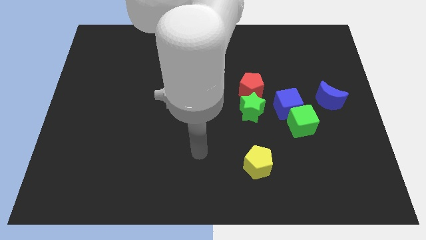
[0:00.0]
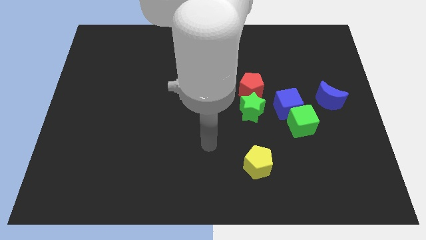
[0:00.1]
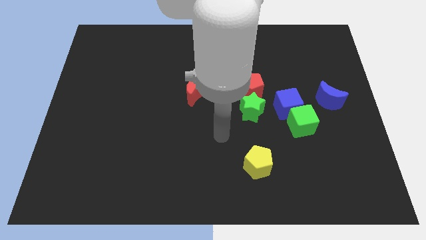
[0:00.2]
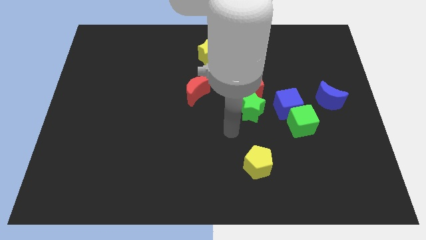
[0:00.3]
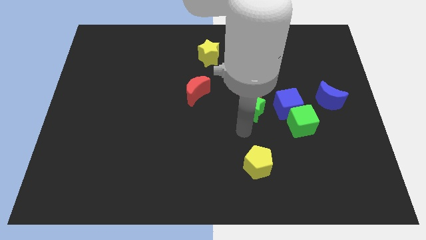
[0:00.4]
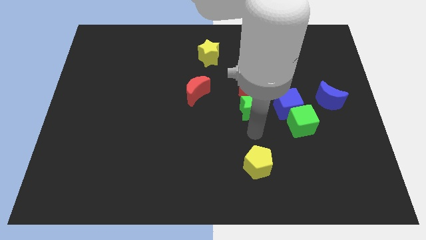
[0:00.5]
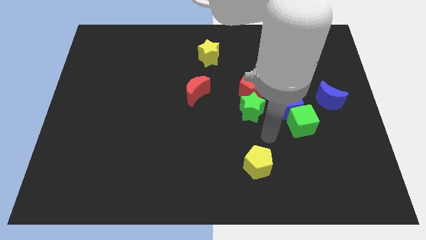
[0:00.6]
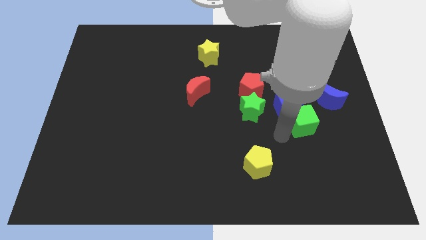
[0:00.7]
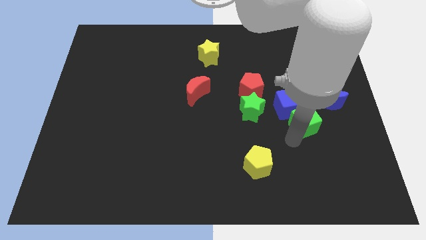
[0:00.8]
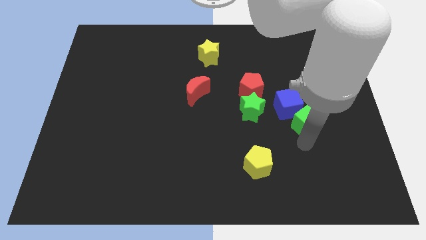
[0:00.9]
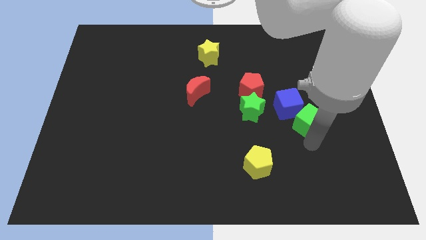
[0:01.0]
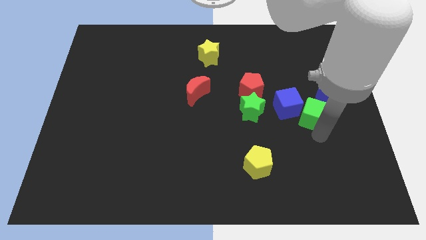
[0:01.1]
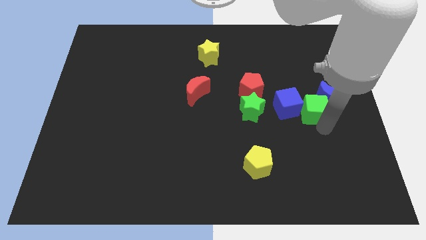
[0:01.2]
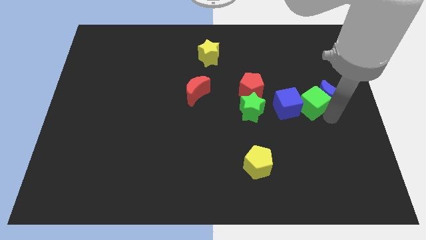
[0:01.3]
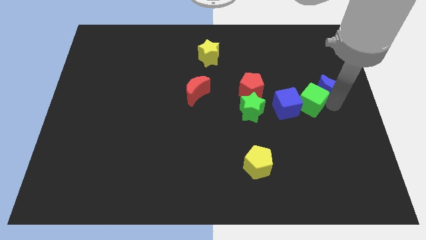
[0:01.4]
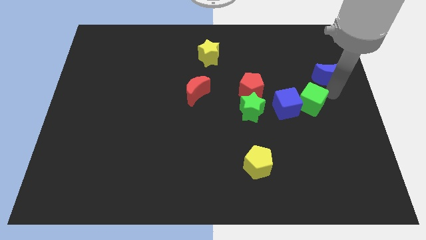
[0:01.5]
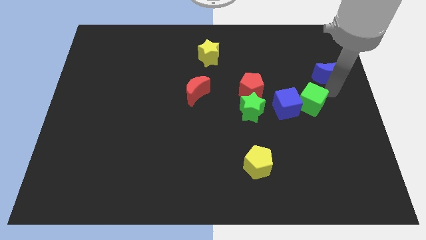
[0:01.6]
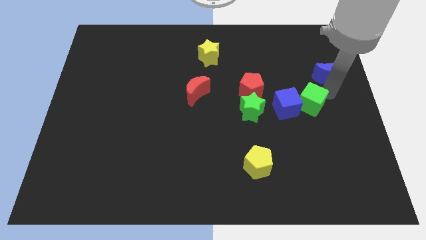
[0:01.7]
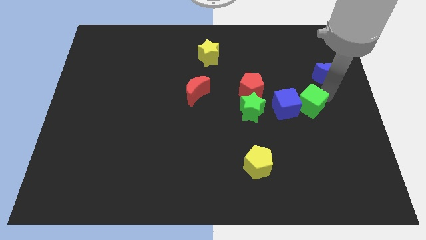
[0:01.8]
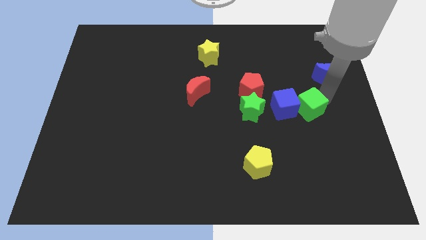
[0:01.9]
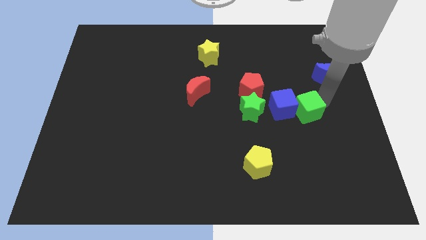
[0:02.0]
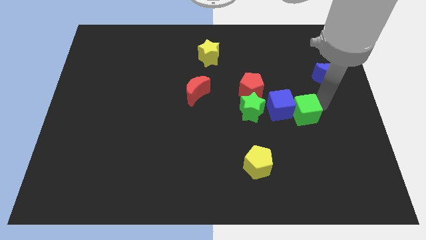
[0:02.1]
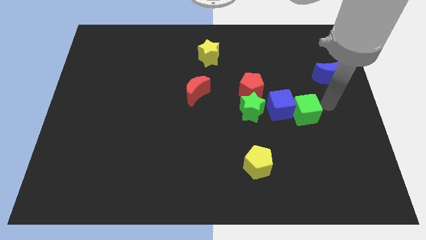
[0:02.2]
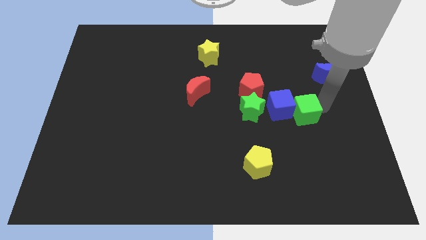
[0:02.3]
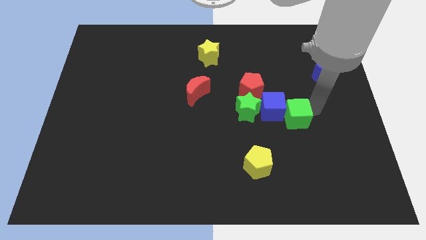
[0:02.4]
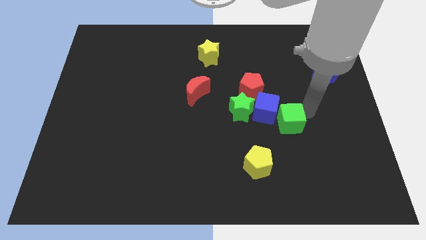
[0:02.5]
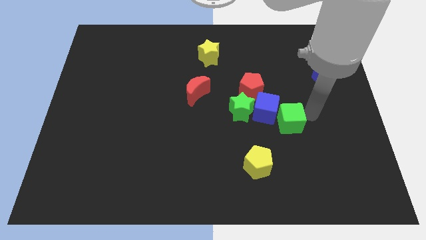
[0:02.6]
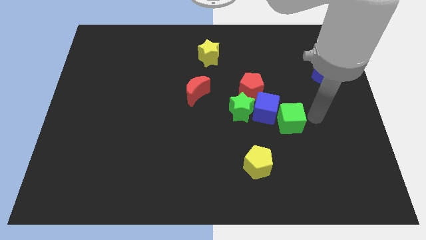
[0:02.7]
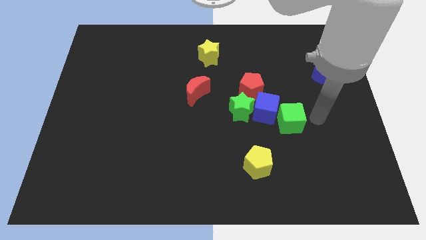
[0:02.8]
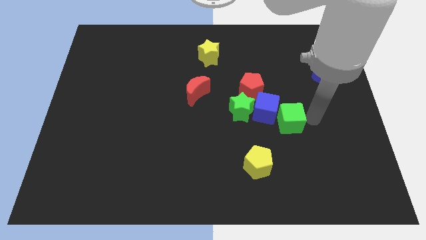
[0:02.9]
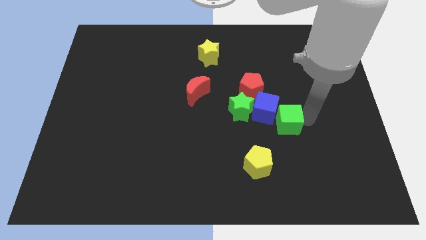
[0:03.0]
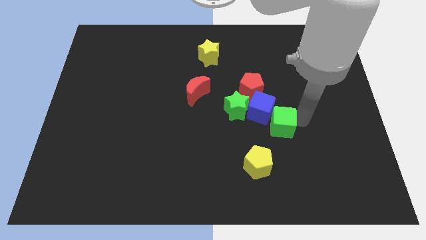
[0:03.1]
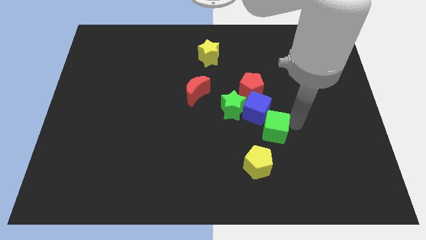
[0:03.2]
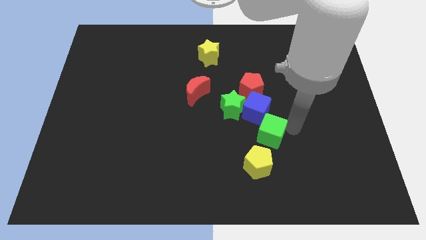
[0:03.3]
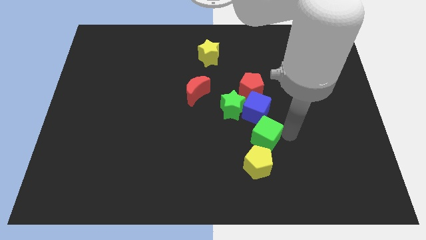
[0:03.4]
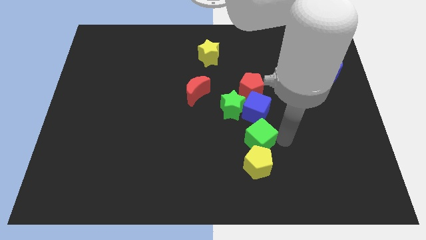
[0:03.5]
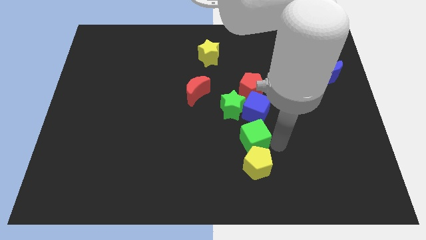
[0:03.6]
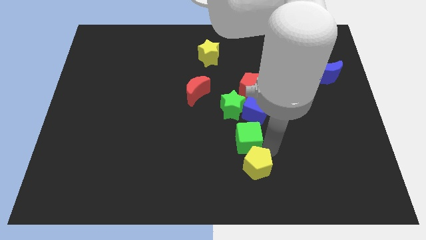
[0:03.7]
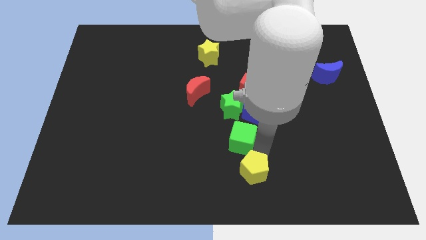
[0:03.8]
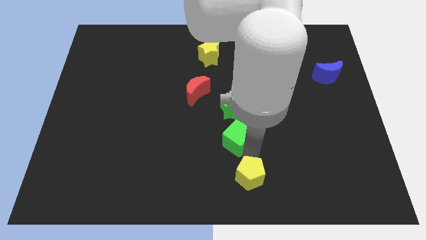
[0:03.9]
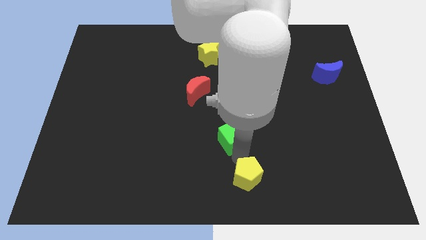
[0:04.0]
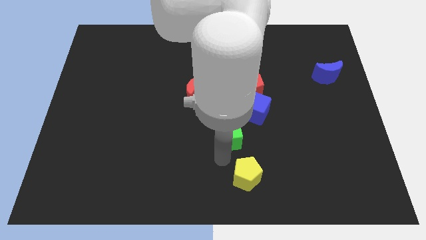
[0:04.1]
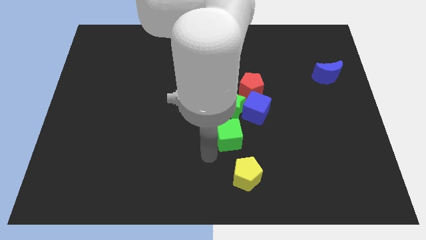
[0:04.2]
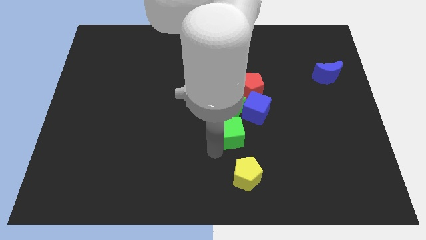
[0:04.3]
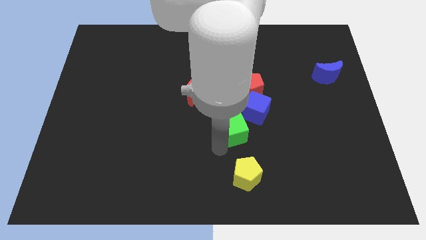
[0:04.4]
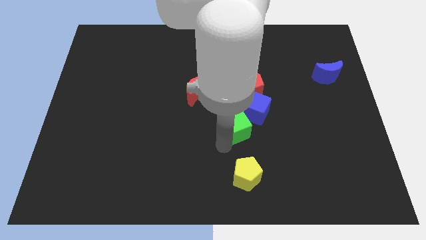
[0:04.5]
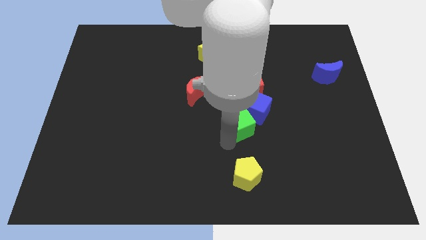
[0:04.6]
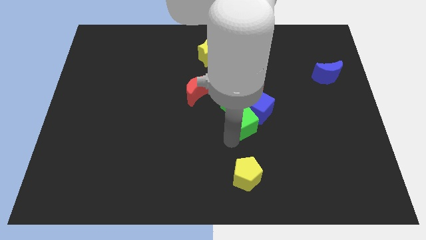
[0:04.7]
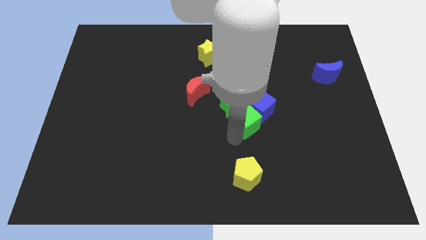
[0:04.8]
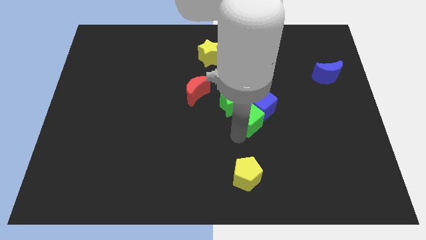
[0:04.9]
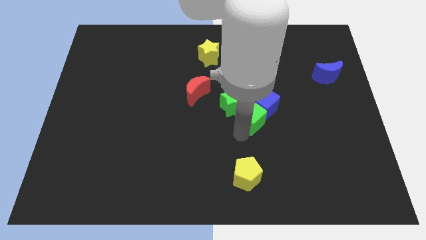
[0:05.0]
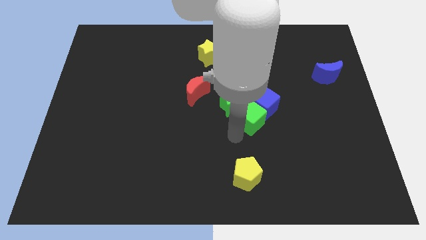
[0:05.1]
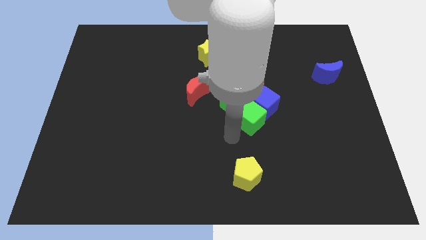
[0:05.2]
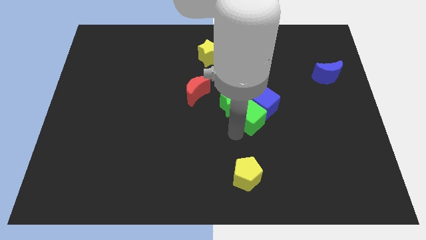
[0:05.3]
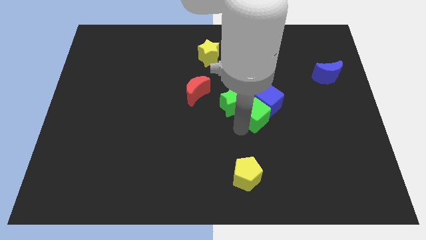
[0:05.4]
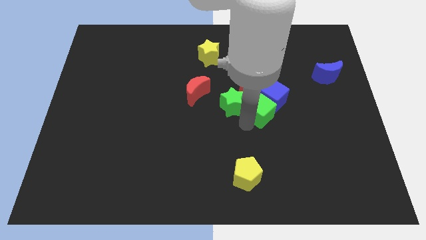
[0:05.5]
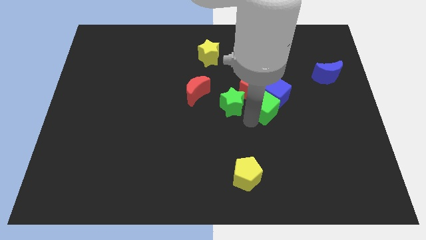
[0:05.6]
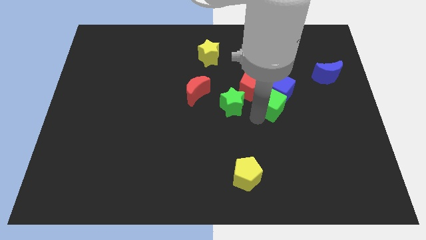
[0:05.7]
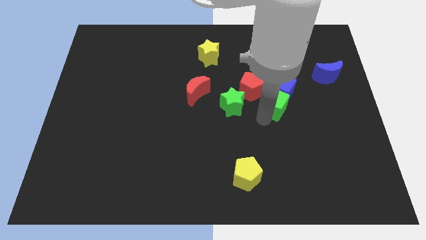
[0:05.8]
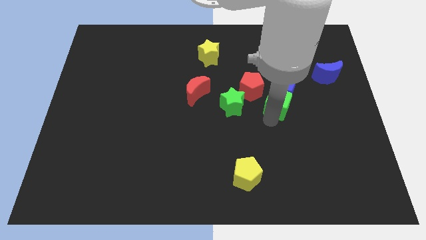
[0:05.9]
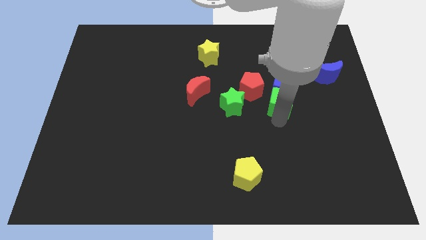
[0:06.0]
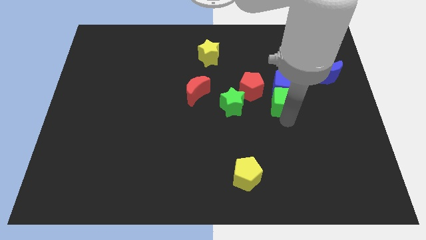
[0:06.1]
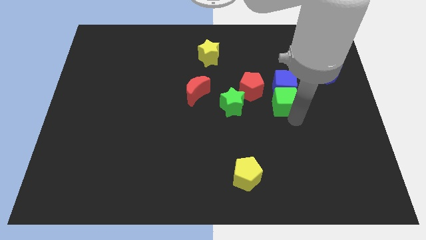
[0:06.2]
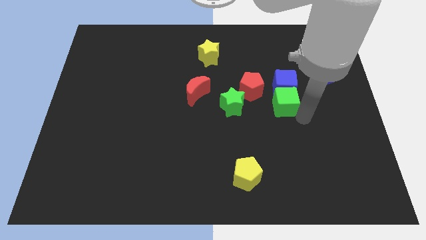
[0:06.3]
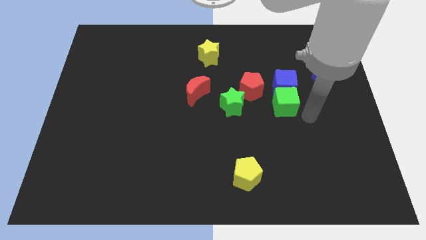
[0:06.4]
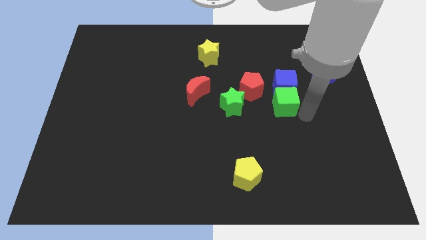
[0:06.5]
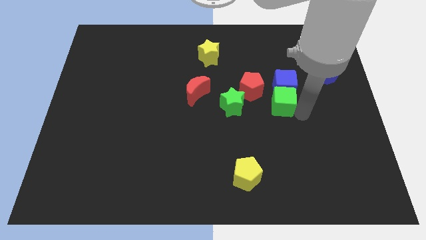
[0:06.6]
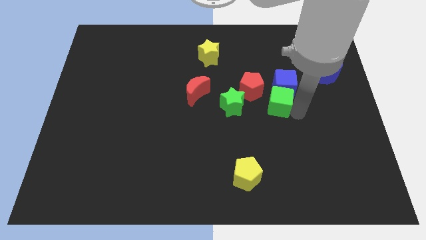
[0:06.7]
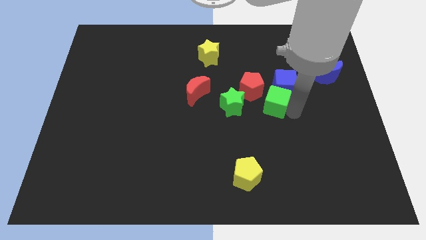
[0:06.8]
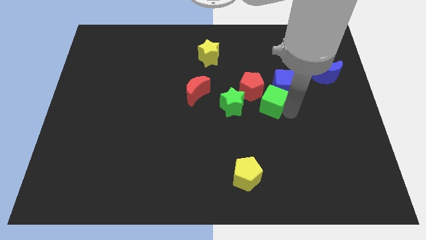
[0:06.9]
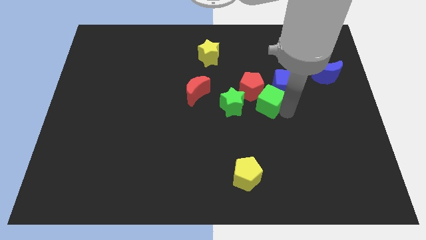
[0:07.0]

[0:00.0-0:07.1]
move the green cube to the red pentagon
